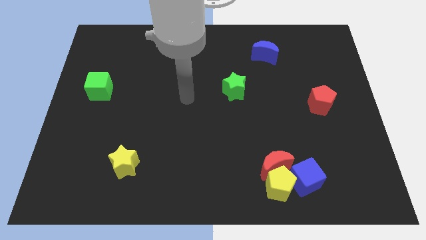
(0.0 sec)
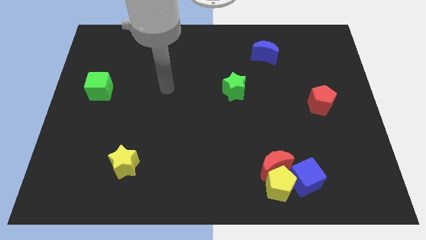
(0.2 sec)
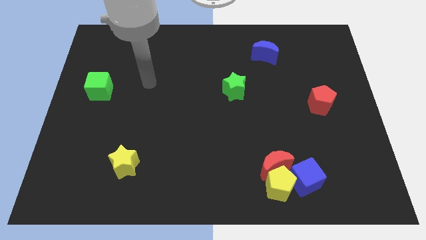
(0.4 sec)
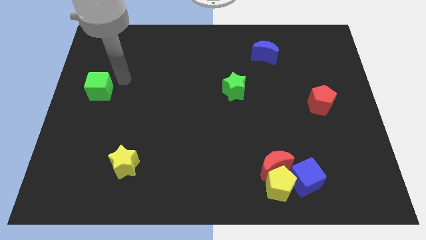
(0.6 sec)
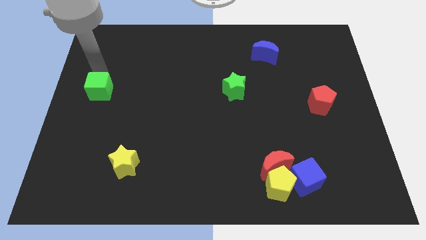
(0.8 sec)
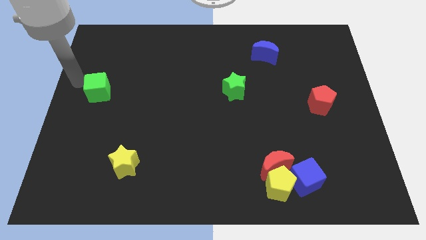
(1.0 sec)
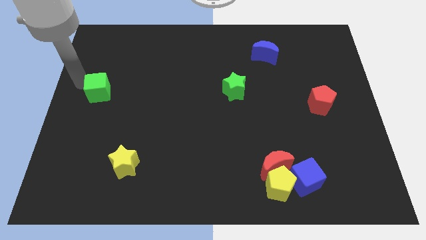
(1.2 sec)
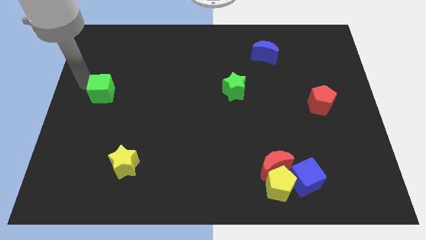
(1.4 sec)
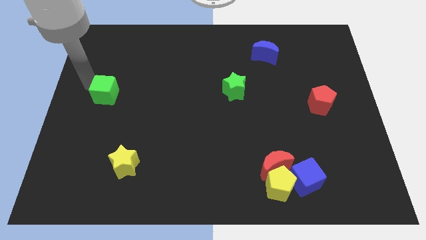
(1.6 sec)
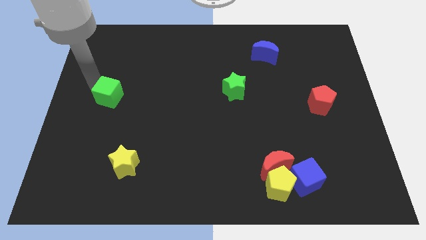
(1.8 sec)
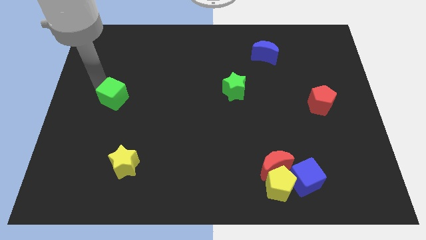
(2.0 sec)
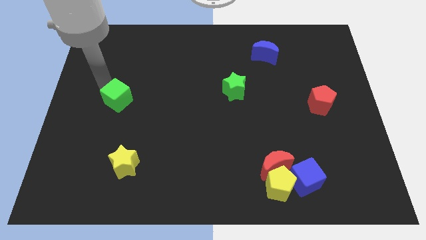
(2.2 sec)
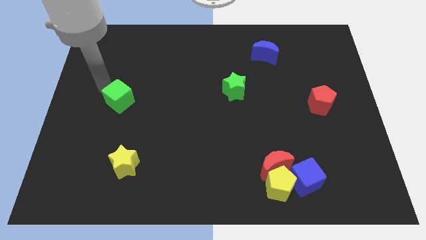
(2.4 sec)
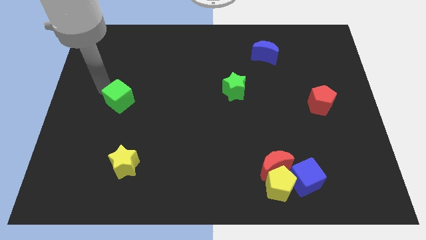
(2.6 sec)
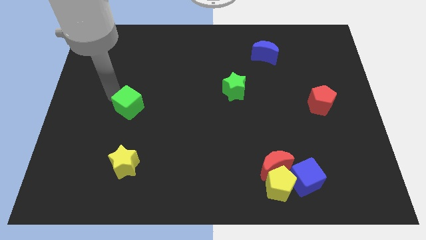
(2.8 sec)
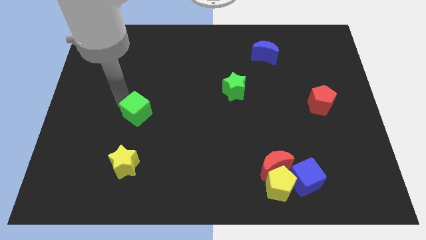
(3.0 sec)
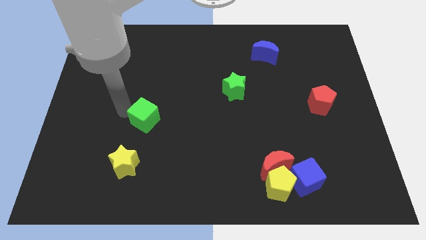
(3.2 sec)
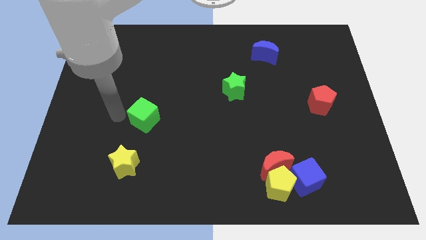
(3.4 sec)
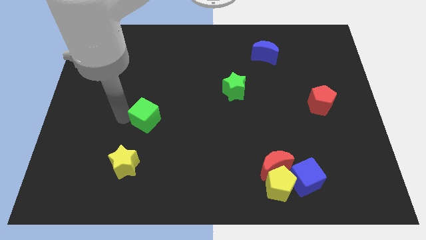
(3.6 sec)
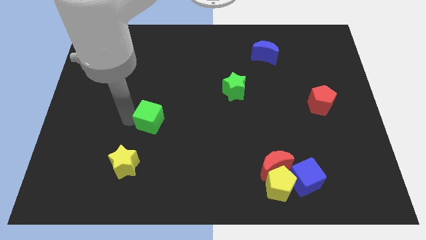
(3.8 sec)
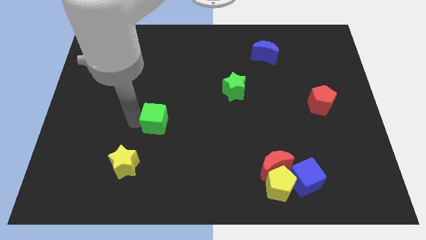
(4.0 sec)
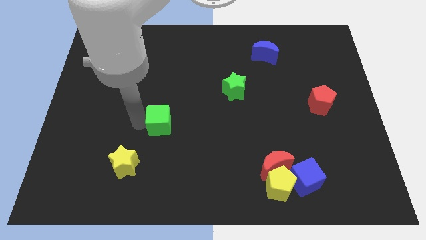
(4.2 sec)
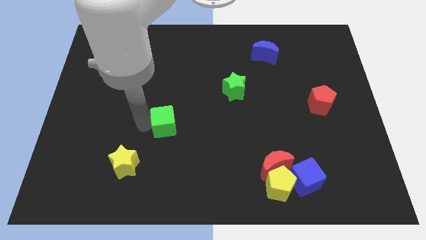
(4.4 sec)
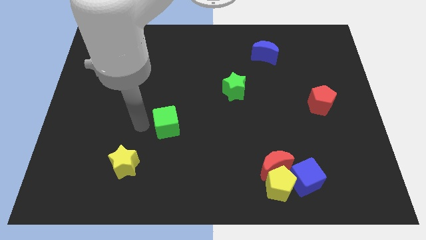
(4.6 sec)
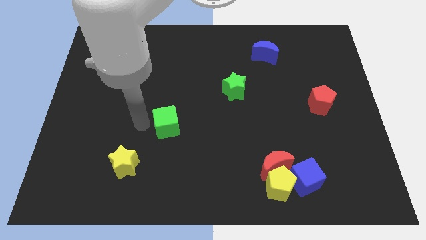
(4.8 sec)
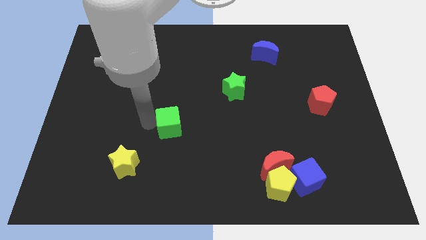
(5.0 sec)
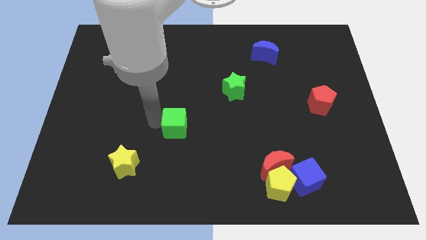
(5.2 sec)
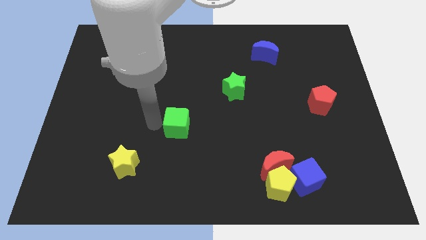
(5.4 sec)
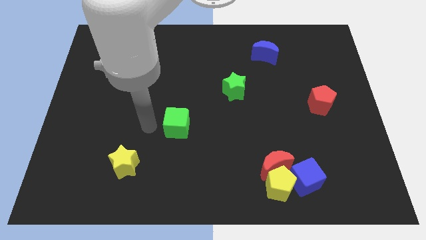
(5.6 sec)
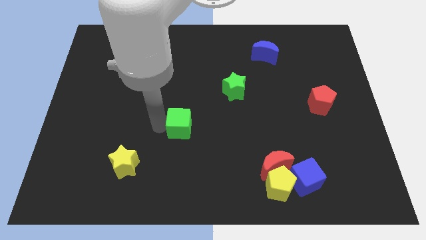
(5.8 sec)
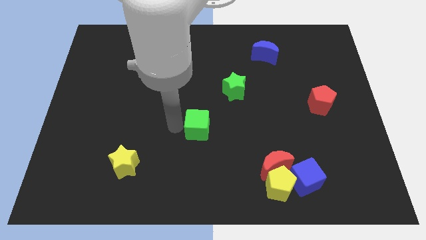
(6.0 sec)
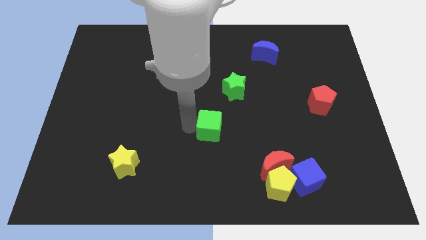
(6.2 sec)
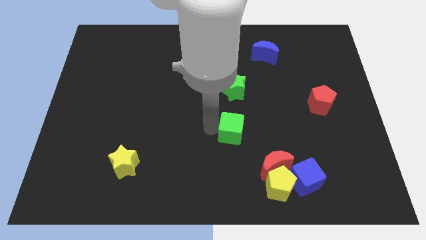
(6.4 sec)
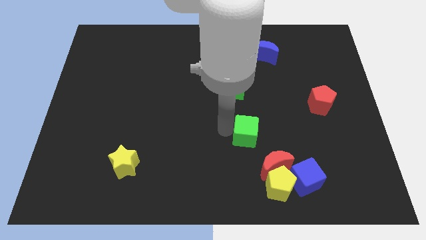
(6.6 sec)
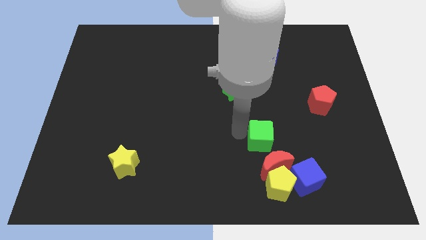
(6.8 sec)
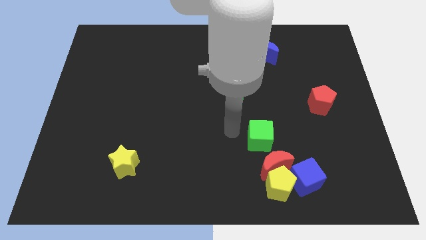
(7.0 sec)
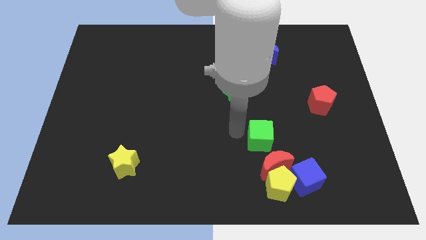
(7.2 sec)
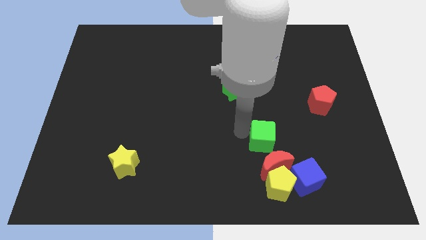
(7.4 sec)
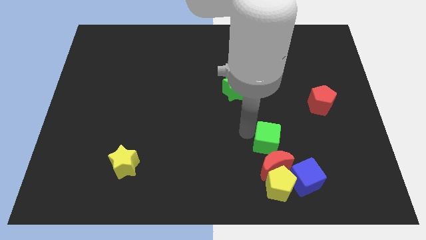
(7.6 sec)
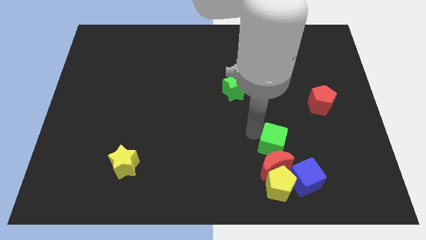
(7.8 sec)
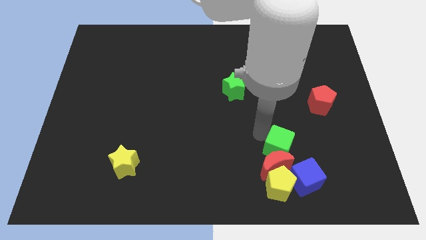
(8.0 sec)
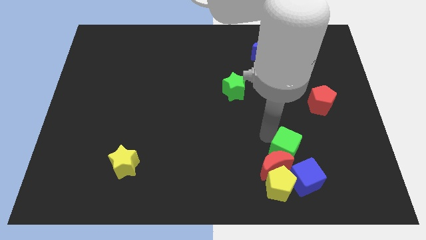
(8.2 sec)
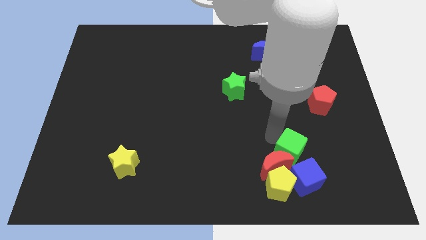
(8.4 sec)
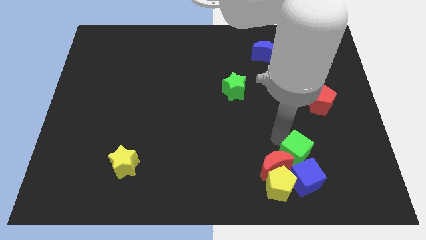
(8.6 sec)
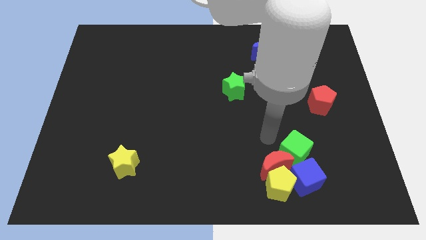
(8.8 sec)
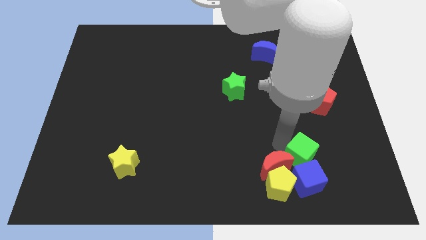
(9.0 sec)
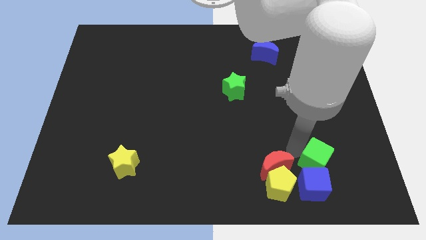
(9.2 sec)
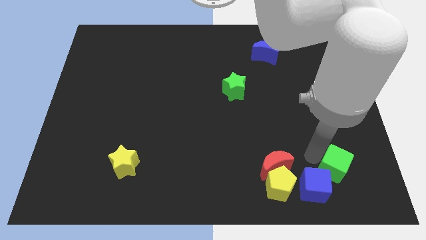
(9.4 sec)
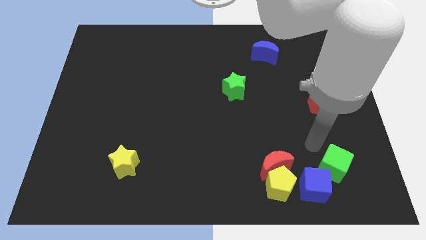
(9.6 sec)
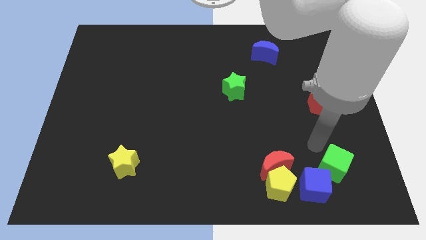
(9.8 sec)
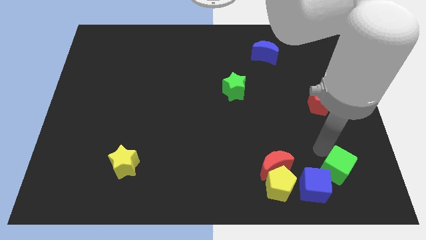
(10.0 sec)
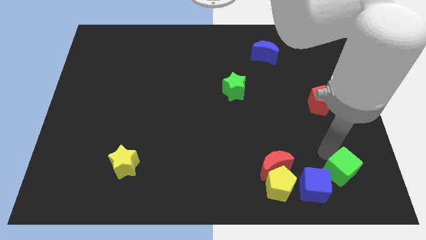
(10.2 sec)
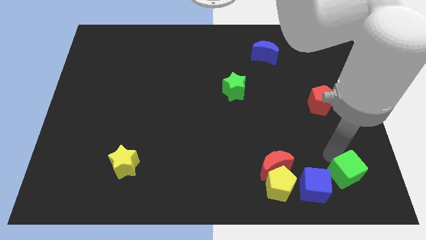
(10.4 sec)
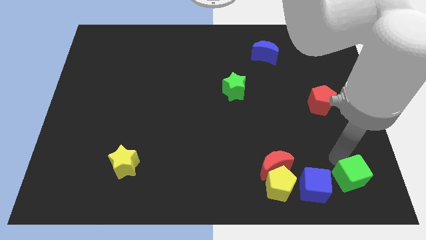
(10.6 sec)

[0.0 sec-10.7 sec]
move the green cube to the lower right corner

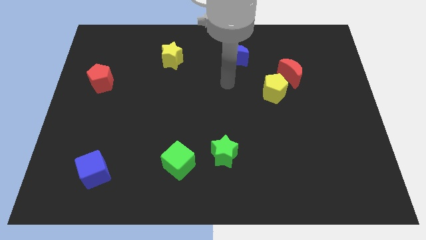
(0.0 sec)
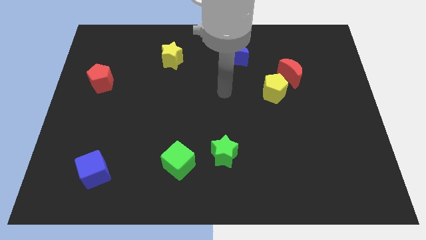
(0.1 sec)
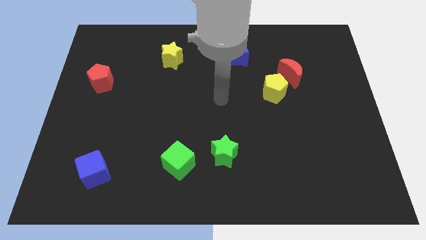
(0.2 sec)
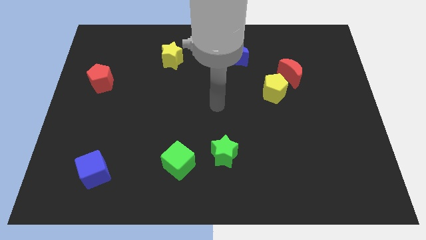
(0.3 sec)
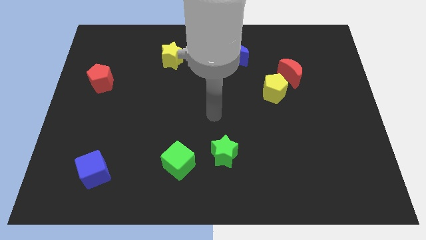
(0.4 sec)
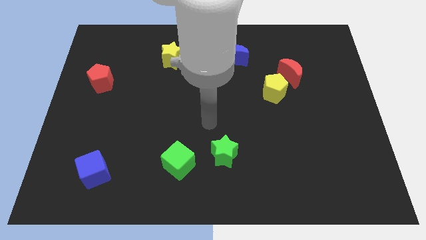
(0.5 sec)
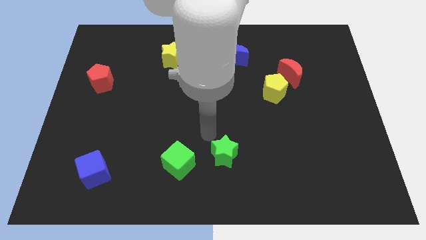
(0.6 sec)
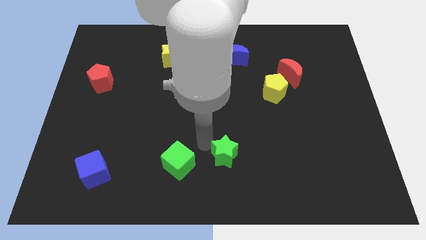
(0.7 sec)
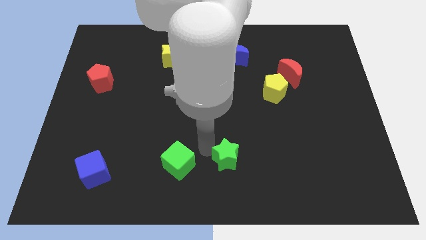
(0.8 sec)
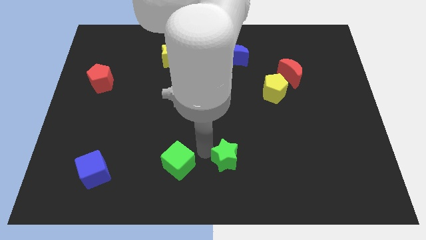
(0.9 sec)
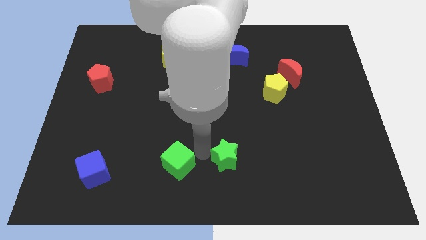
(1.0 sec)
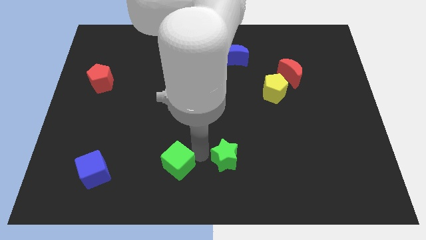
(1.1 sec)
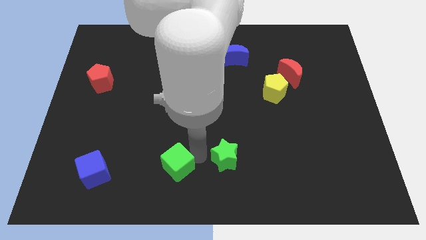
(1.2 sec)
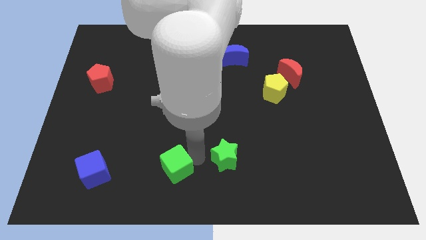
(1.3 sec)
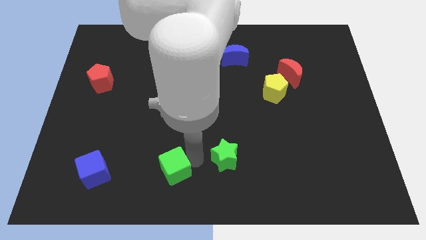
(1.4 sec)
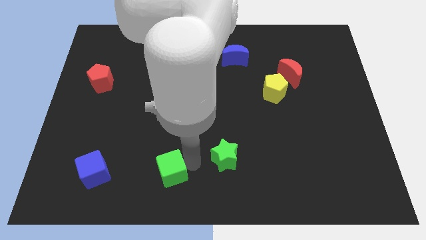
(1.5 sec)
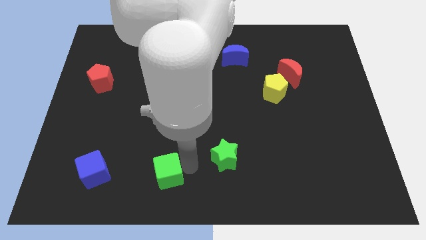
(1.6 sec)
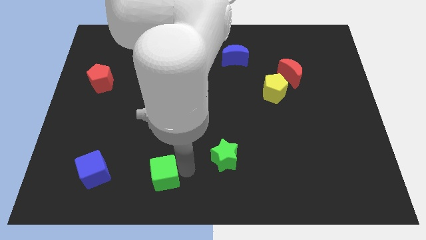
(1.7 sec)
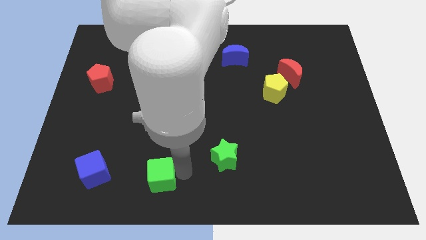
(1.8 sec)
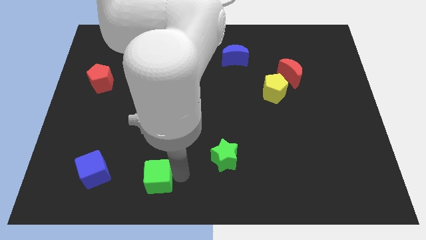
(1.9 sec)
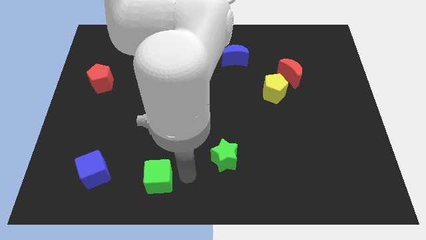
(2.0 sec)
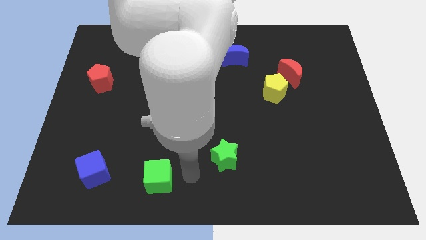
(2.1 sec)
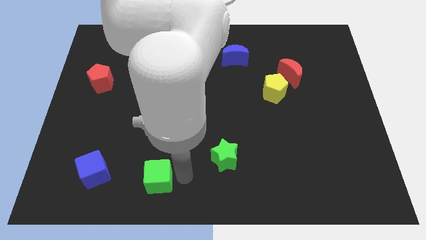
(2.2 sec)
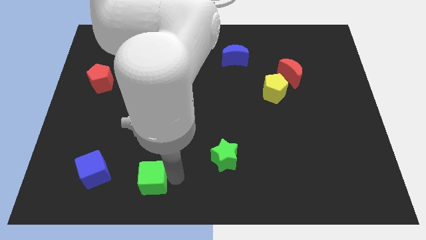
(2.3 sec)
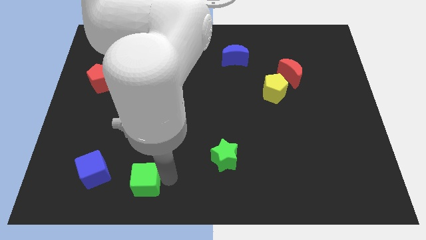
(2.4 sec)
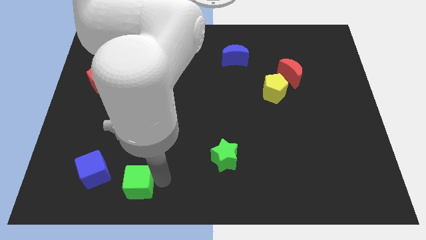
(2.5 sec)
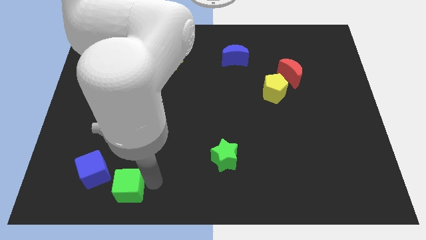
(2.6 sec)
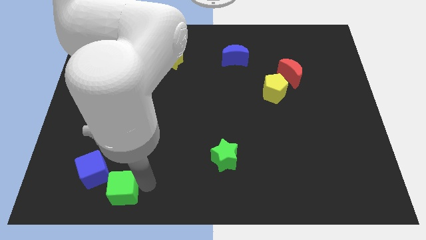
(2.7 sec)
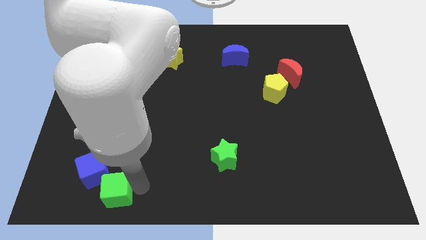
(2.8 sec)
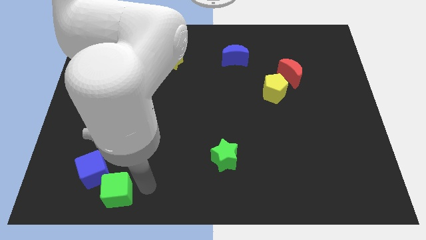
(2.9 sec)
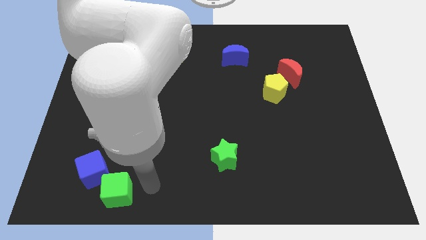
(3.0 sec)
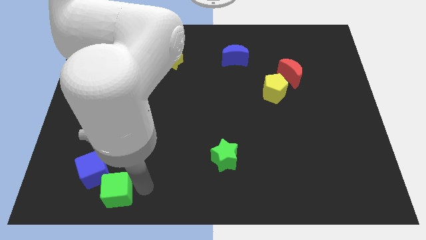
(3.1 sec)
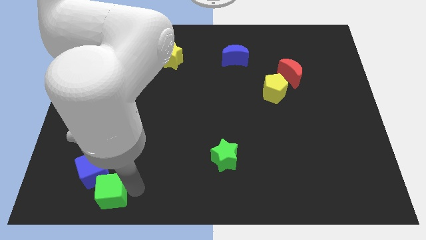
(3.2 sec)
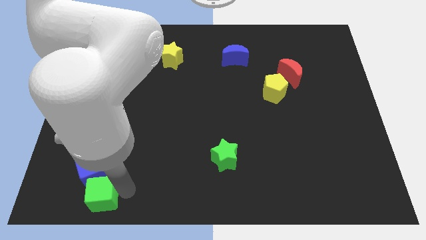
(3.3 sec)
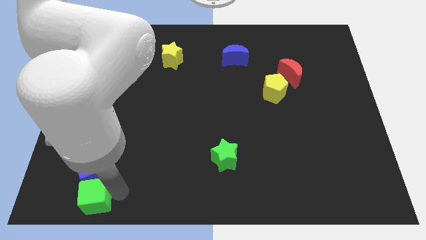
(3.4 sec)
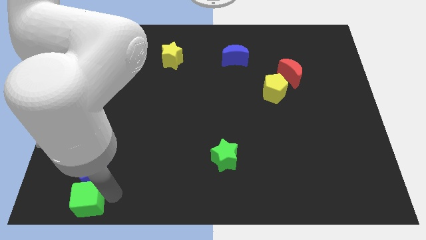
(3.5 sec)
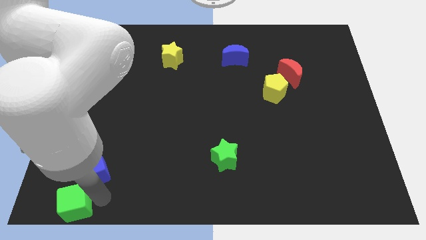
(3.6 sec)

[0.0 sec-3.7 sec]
slide the green cube to the lower left corner
